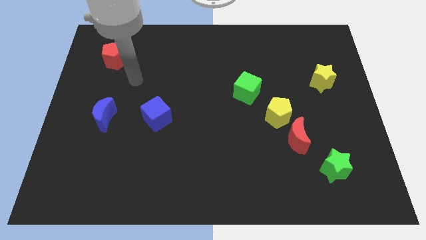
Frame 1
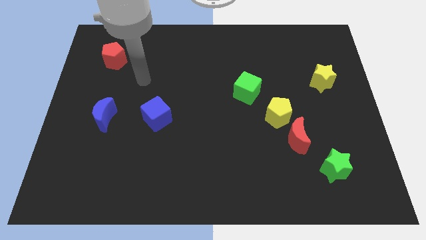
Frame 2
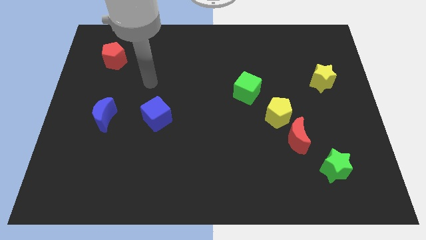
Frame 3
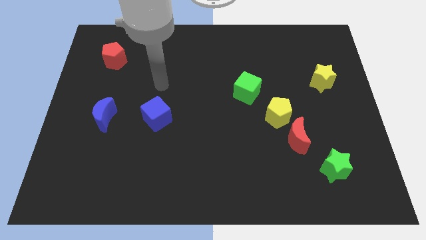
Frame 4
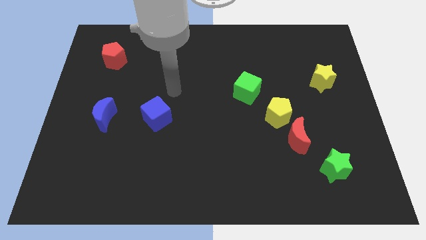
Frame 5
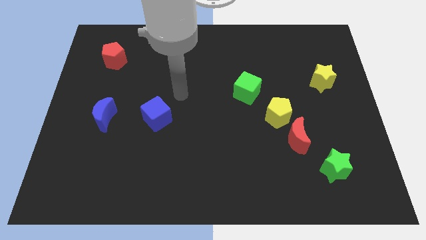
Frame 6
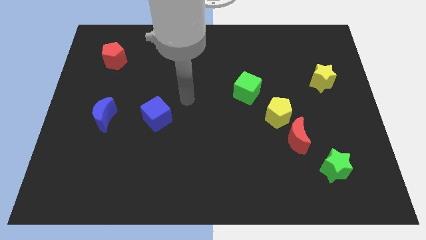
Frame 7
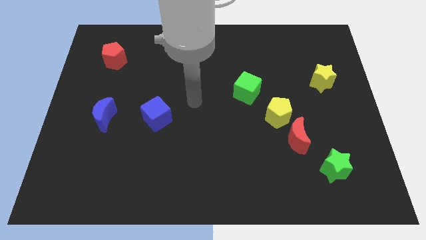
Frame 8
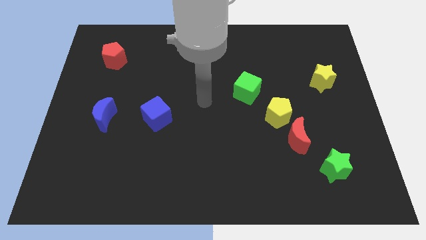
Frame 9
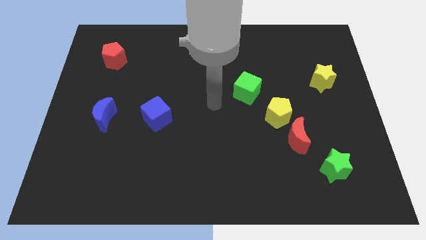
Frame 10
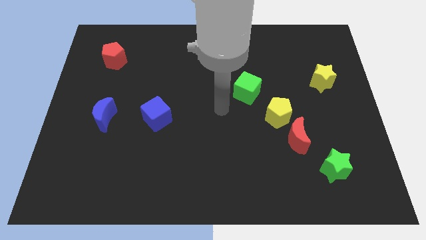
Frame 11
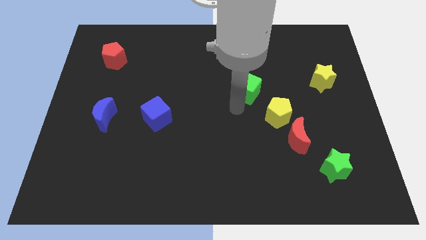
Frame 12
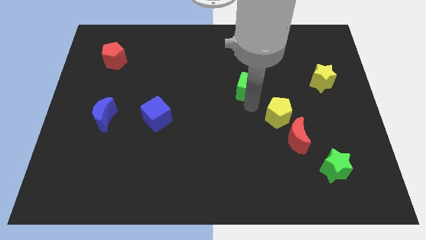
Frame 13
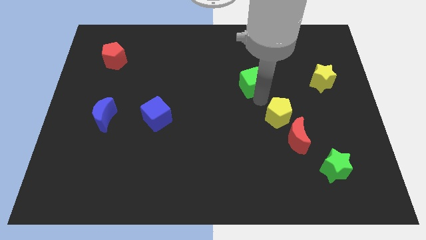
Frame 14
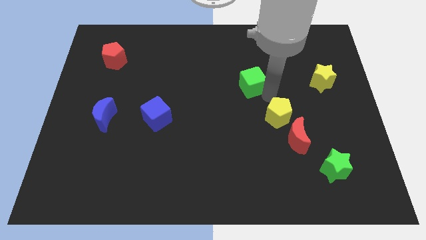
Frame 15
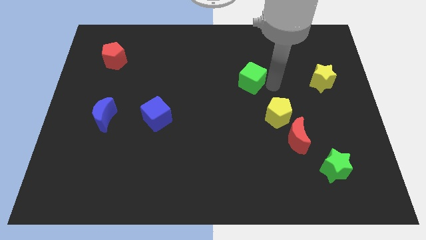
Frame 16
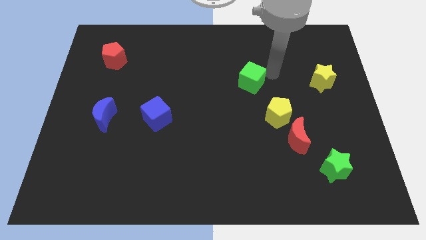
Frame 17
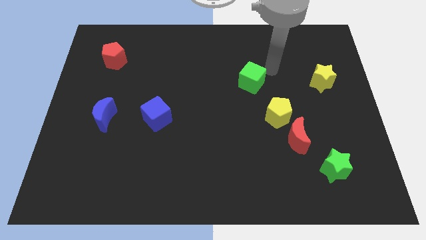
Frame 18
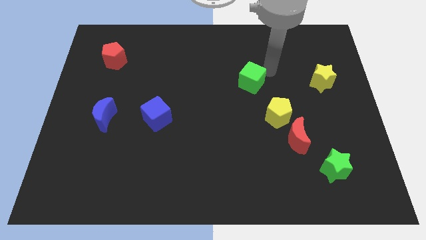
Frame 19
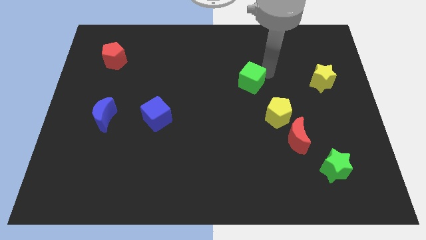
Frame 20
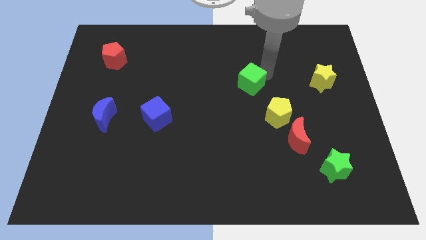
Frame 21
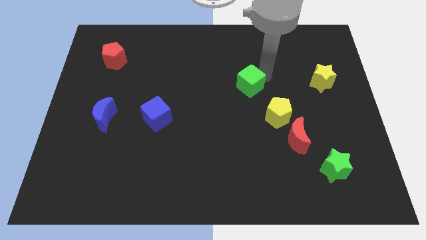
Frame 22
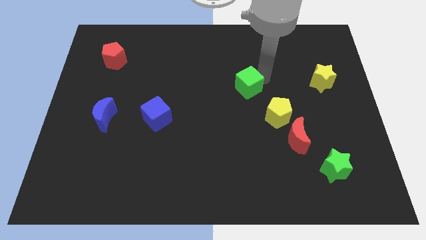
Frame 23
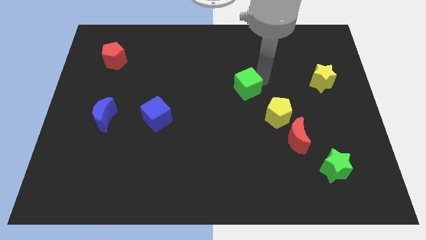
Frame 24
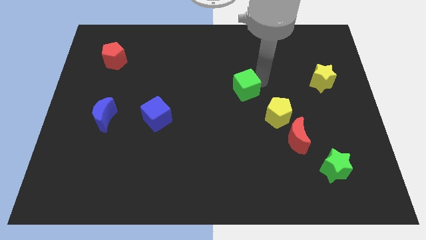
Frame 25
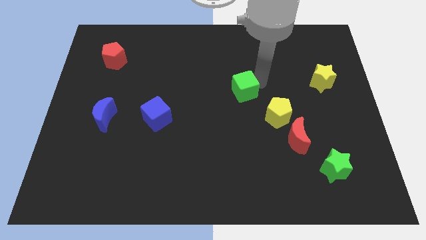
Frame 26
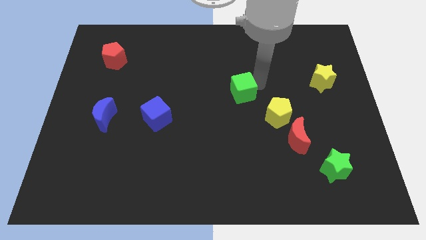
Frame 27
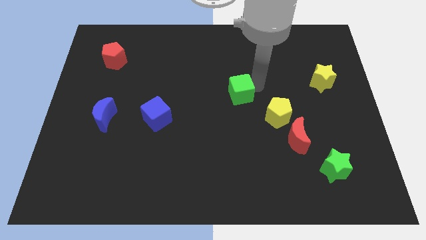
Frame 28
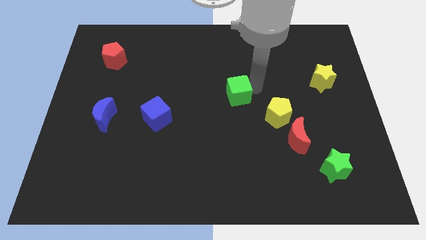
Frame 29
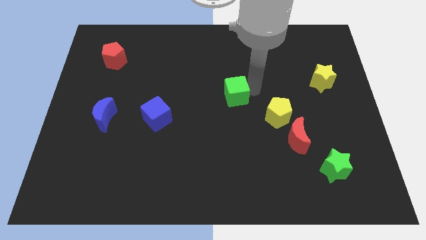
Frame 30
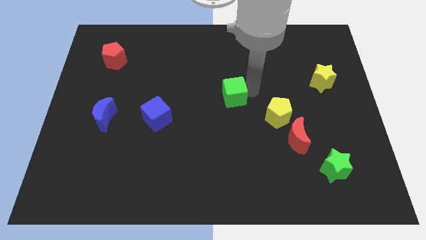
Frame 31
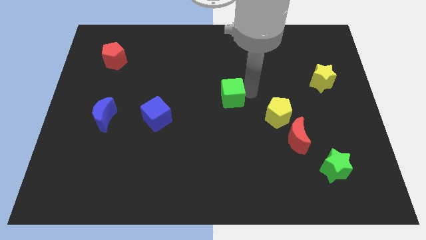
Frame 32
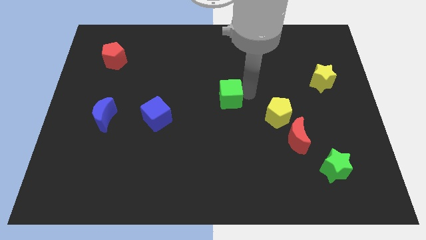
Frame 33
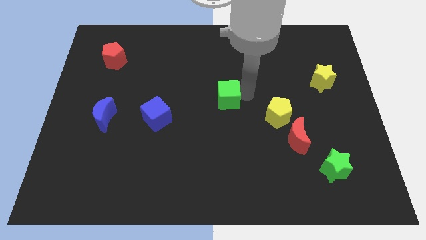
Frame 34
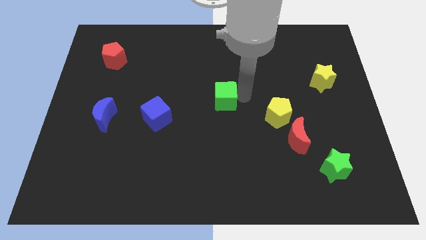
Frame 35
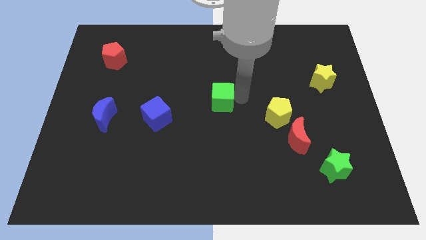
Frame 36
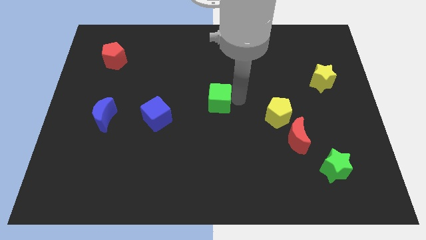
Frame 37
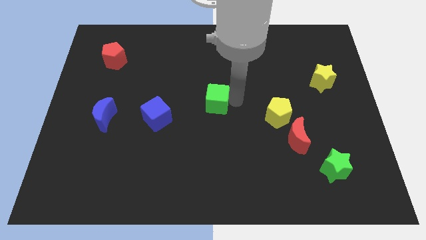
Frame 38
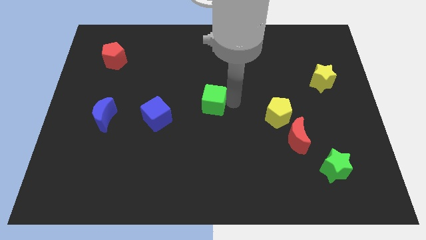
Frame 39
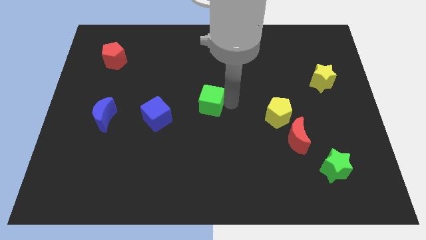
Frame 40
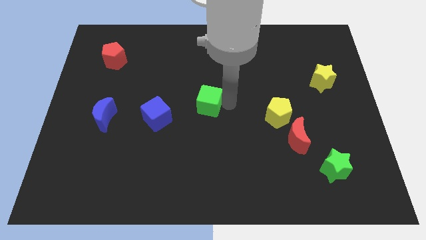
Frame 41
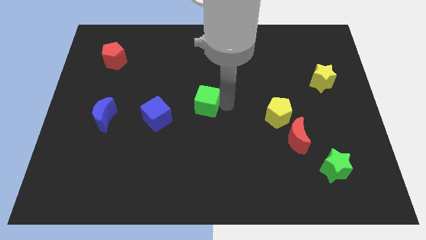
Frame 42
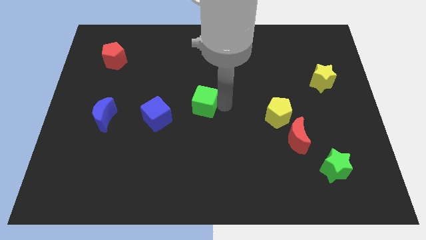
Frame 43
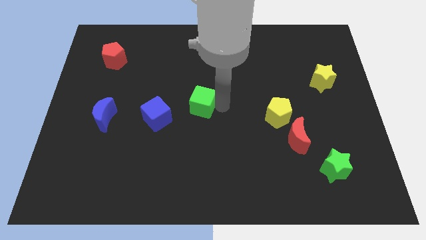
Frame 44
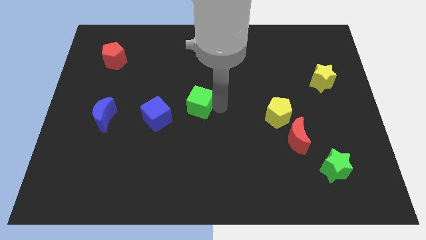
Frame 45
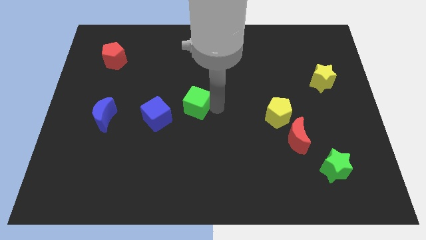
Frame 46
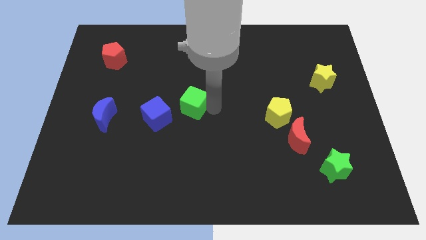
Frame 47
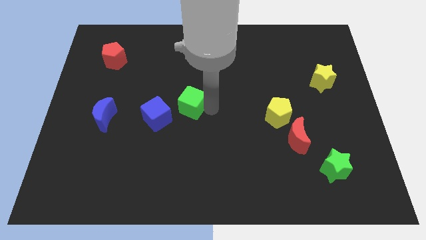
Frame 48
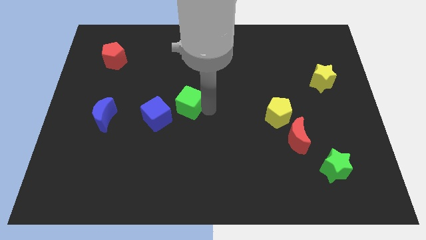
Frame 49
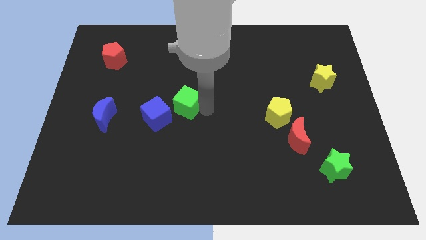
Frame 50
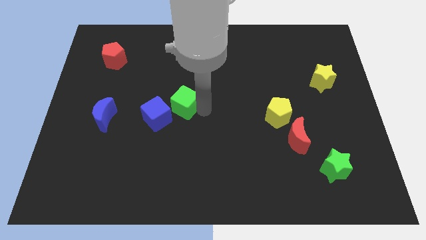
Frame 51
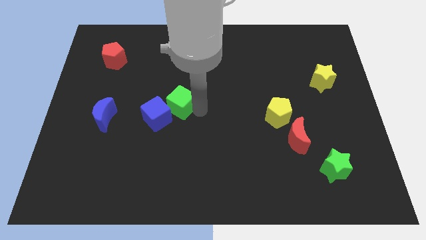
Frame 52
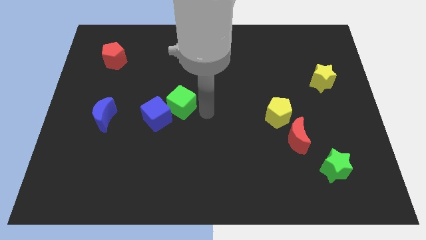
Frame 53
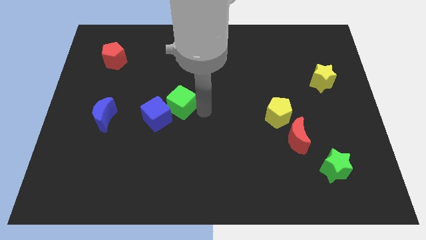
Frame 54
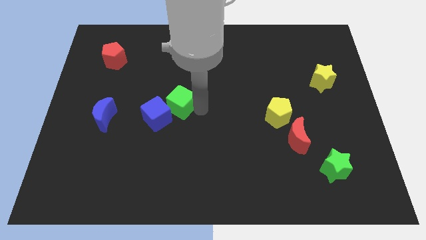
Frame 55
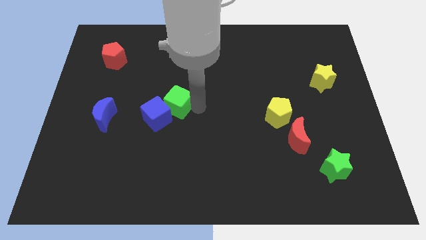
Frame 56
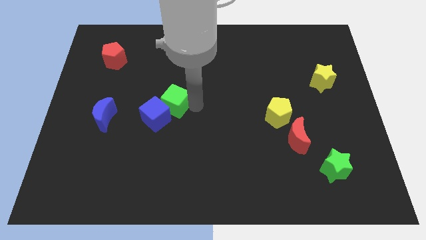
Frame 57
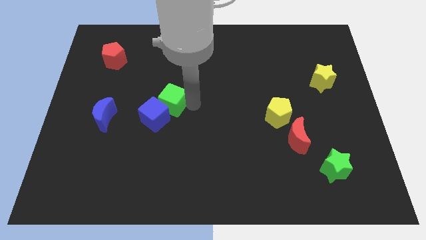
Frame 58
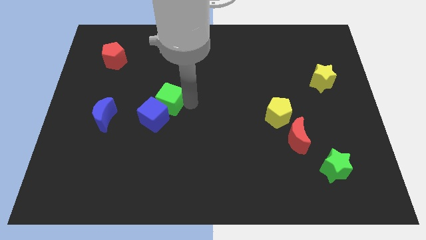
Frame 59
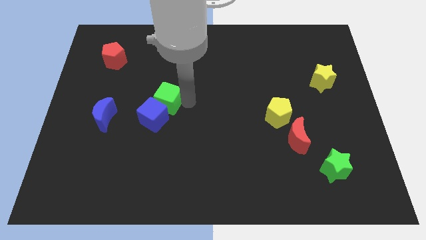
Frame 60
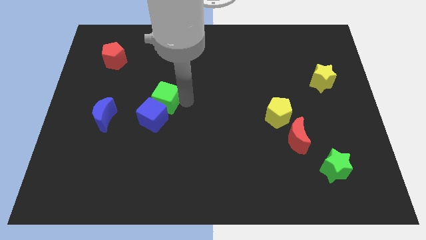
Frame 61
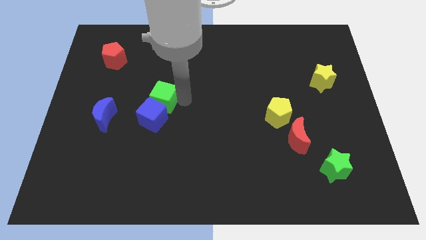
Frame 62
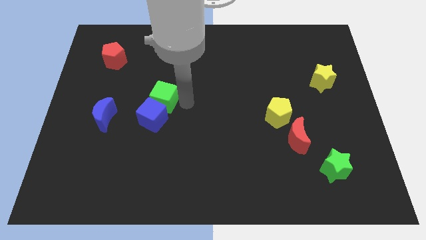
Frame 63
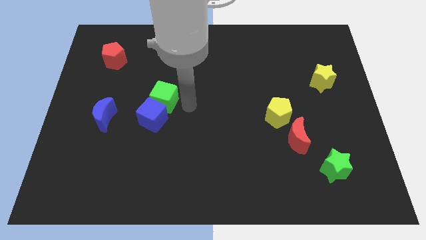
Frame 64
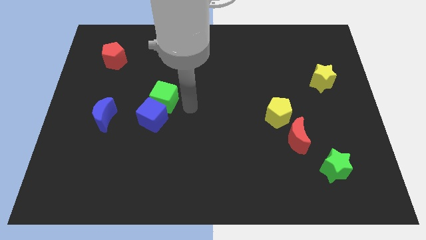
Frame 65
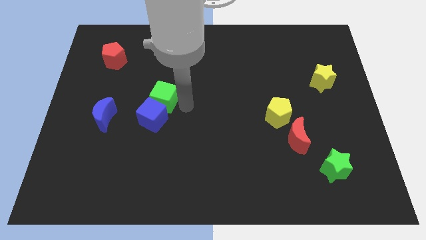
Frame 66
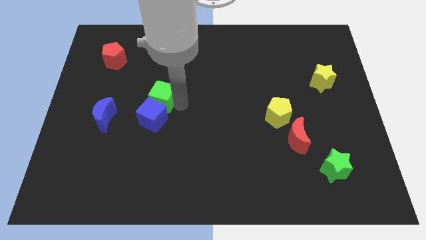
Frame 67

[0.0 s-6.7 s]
move the green cube to the left

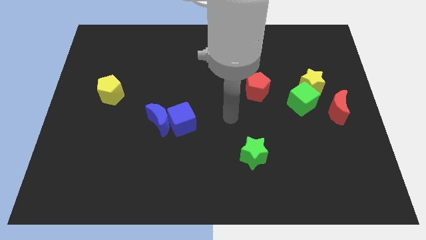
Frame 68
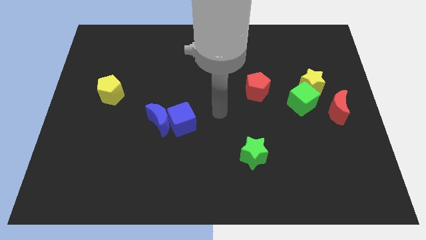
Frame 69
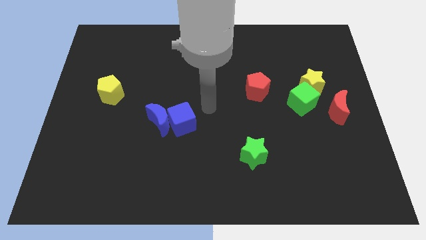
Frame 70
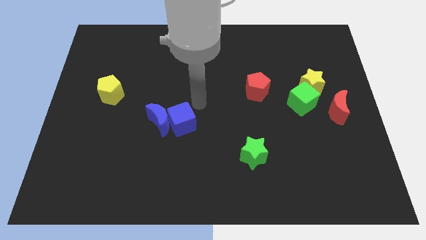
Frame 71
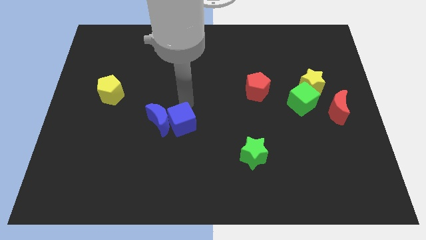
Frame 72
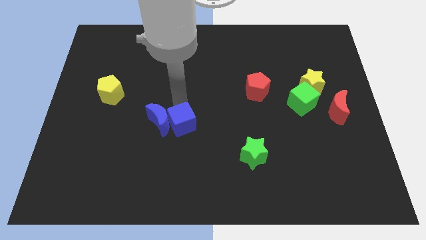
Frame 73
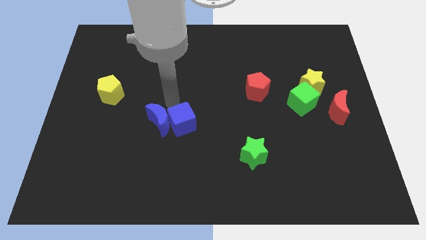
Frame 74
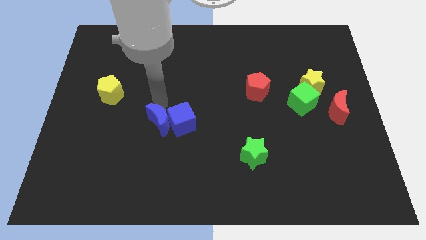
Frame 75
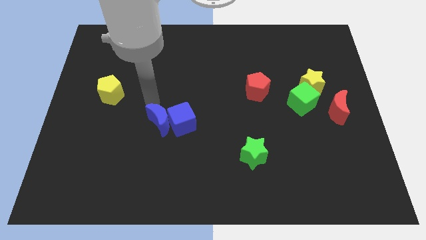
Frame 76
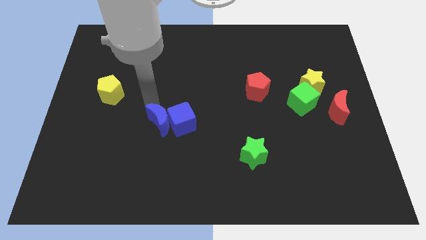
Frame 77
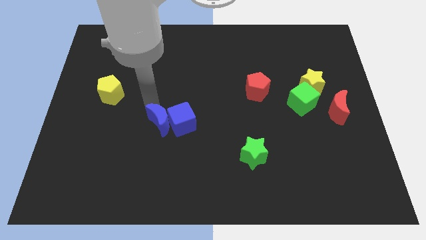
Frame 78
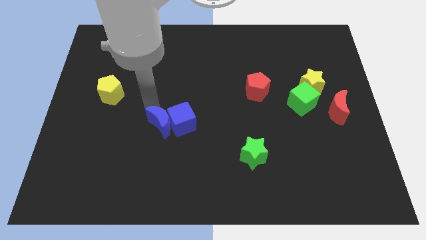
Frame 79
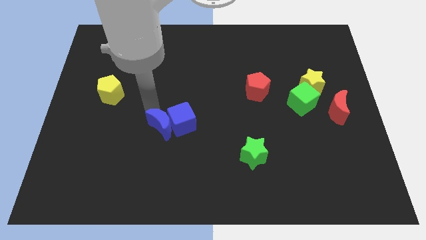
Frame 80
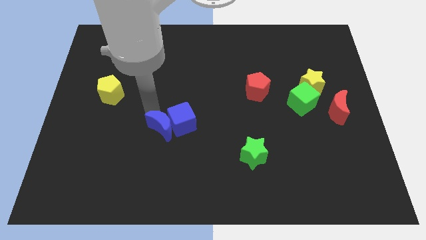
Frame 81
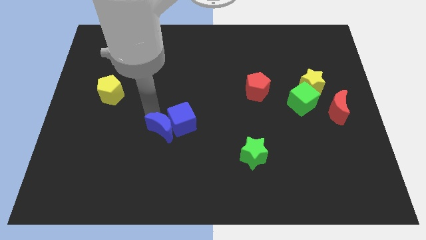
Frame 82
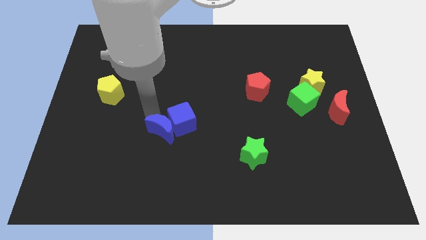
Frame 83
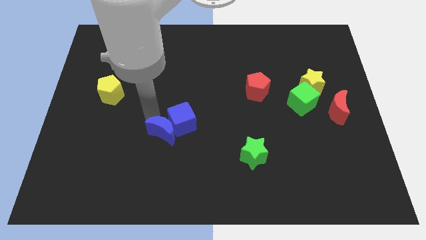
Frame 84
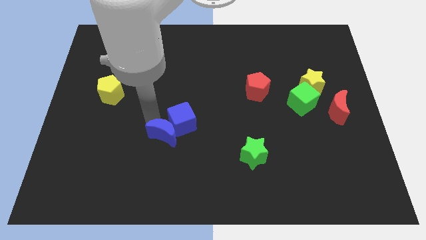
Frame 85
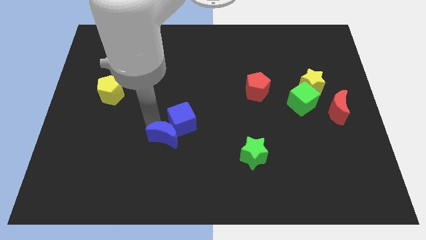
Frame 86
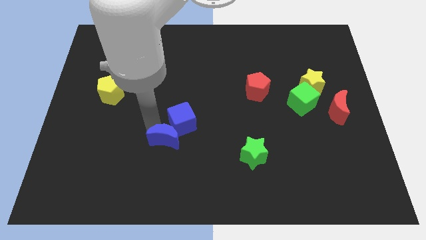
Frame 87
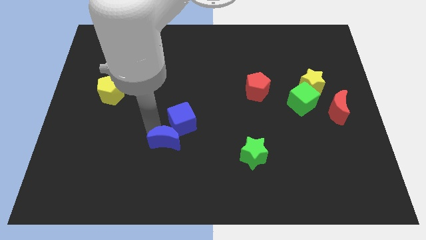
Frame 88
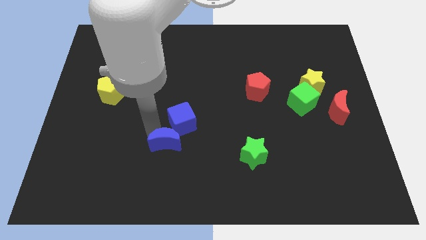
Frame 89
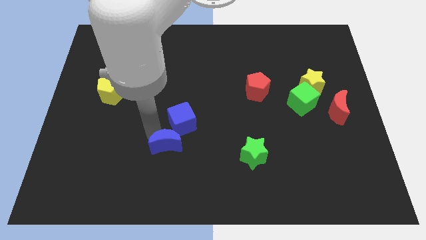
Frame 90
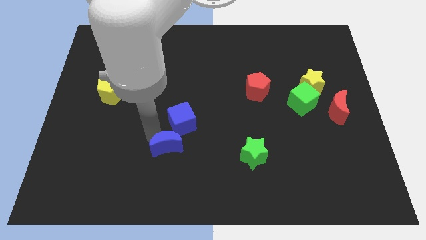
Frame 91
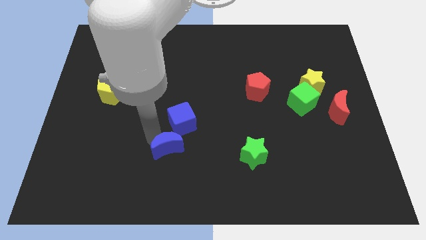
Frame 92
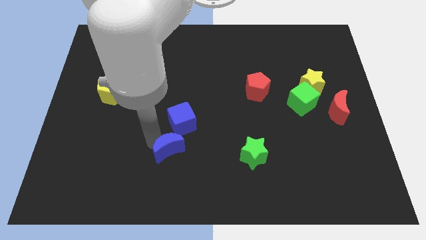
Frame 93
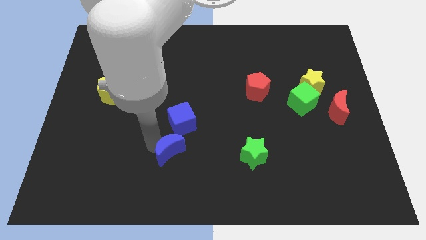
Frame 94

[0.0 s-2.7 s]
slightly push the blue moon diagonally downwards and right
